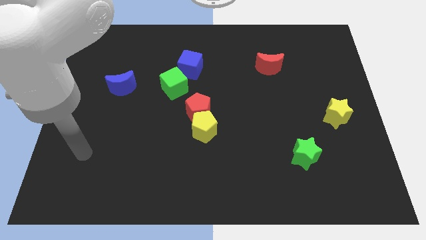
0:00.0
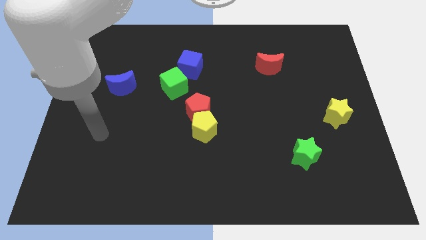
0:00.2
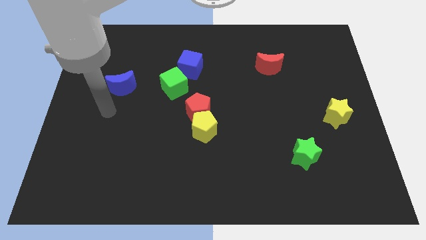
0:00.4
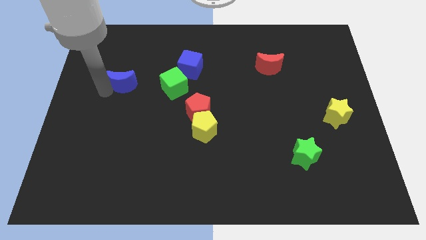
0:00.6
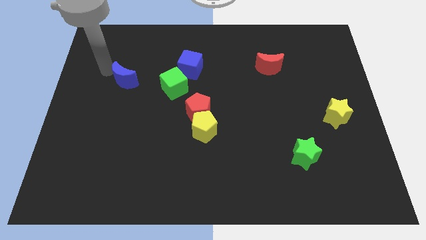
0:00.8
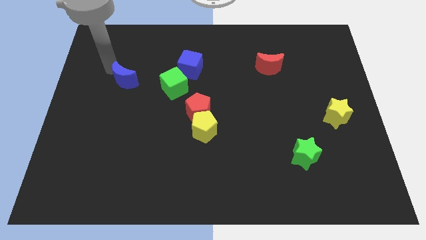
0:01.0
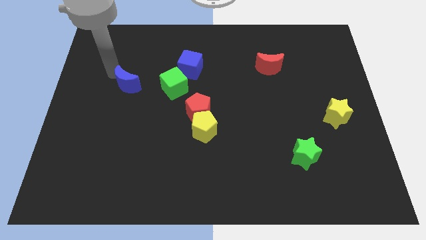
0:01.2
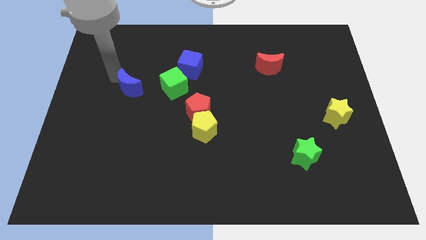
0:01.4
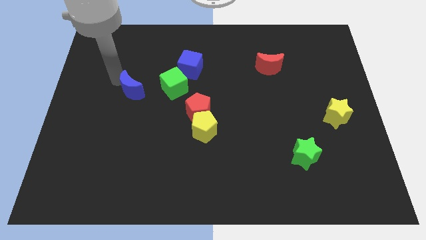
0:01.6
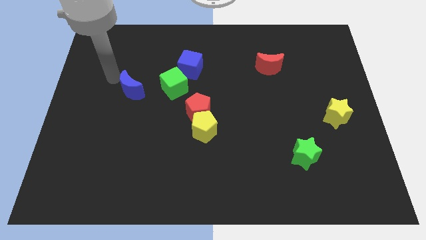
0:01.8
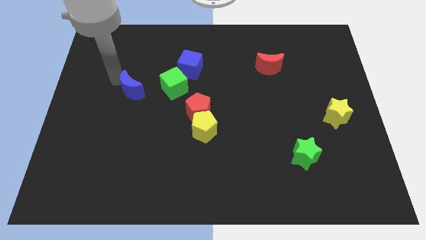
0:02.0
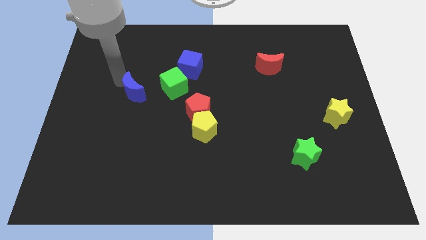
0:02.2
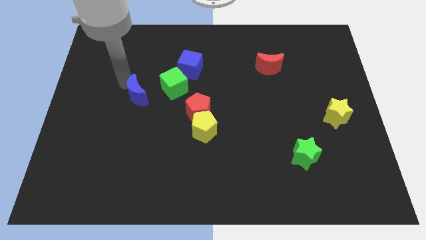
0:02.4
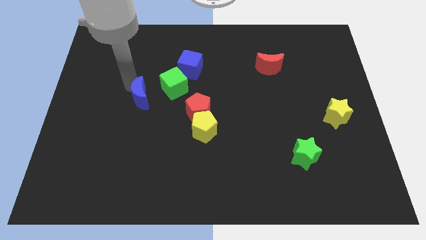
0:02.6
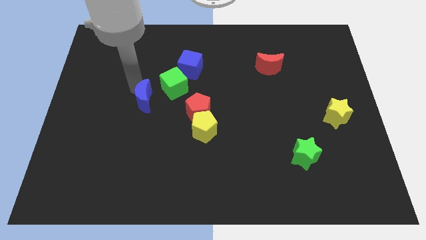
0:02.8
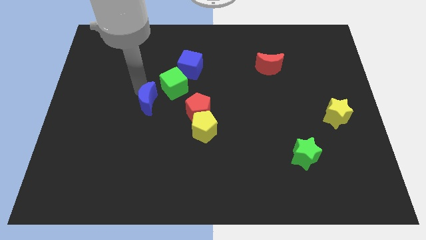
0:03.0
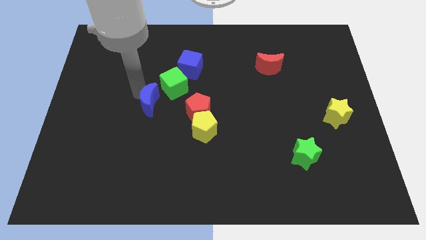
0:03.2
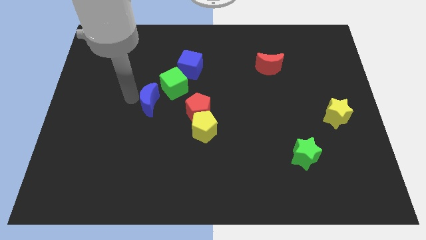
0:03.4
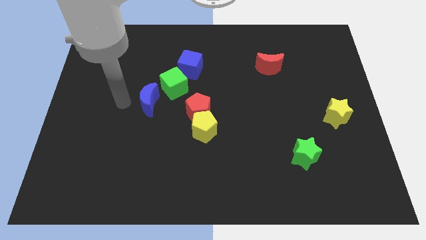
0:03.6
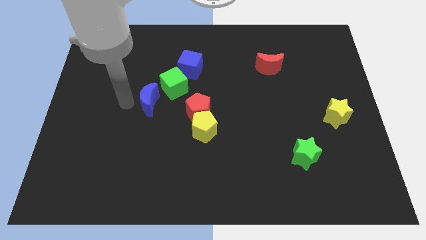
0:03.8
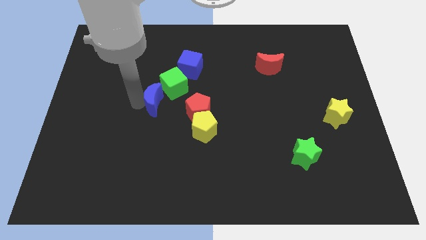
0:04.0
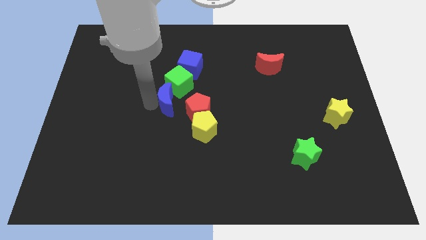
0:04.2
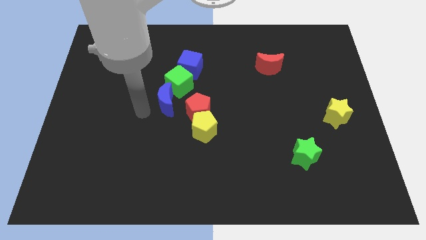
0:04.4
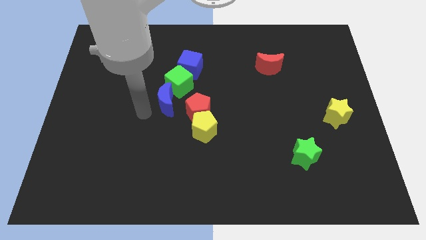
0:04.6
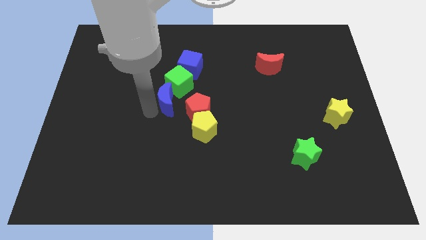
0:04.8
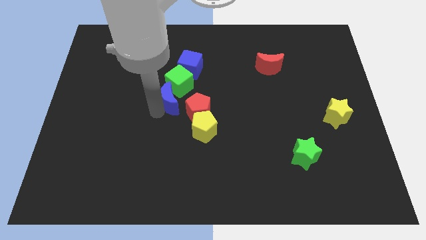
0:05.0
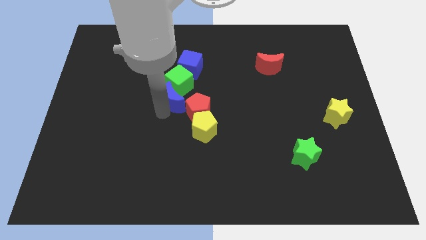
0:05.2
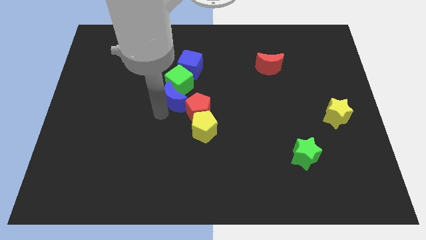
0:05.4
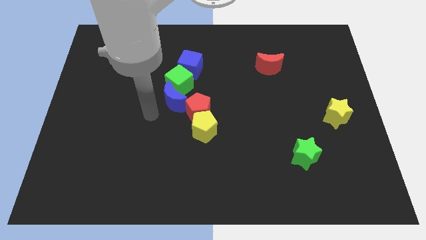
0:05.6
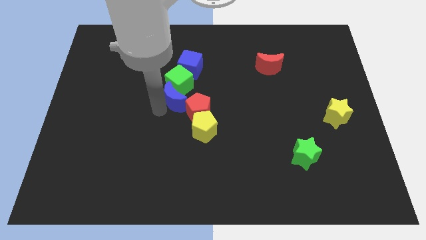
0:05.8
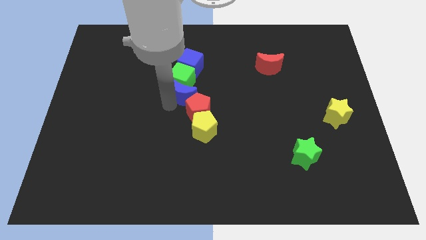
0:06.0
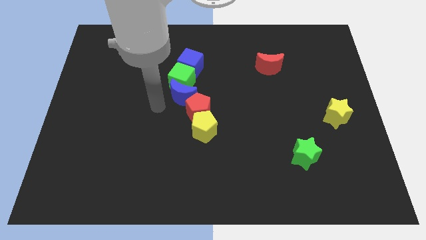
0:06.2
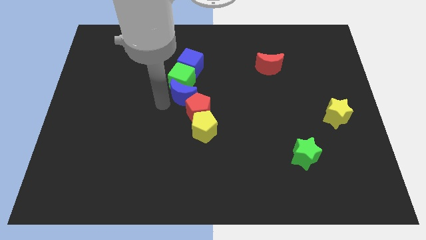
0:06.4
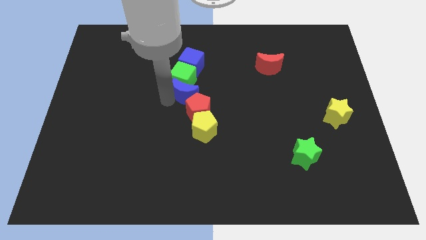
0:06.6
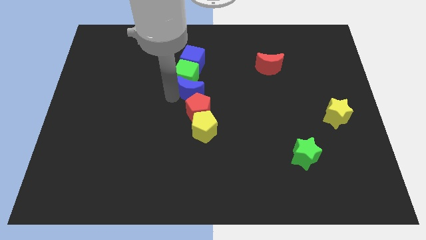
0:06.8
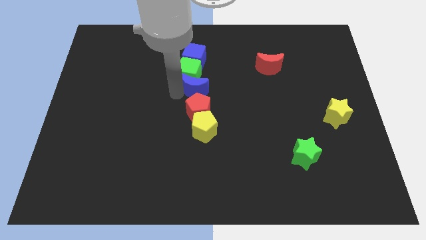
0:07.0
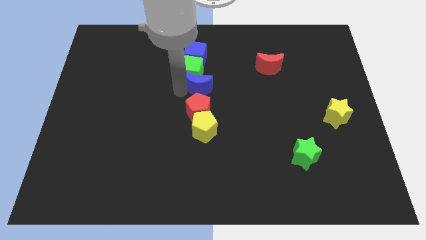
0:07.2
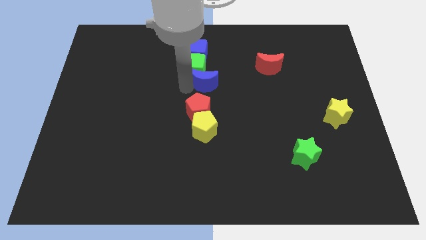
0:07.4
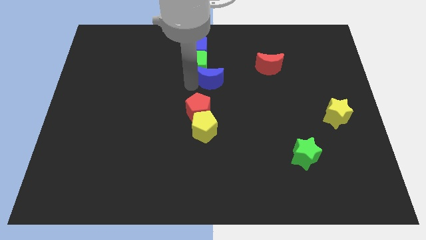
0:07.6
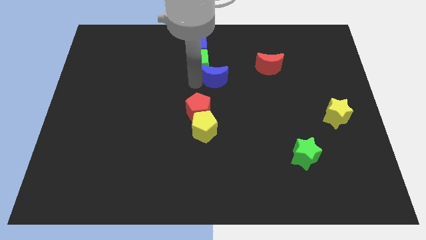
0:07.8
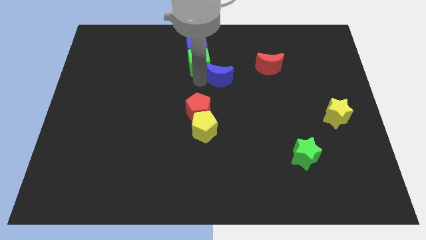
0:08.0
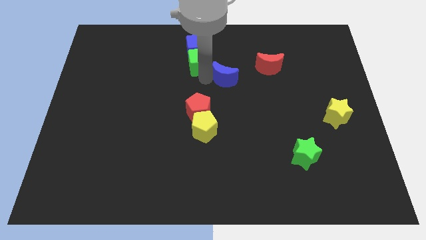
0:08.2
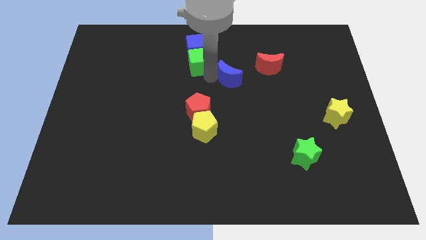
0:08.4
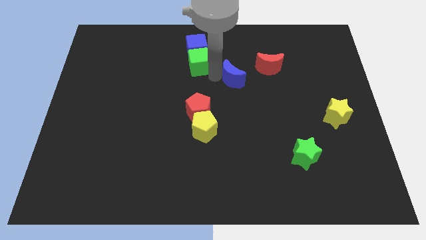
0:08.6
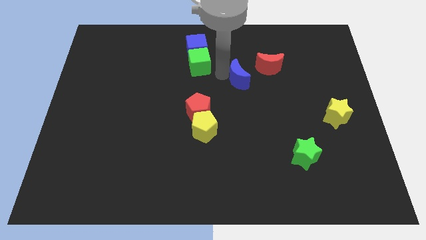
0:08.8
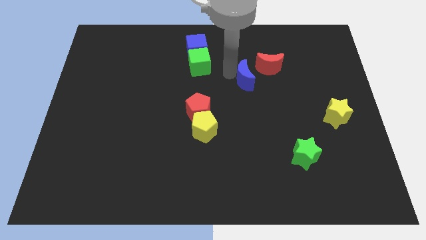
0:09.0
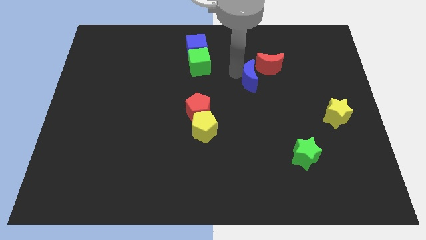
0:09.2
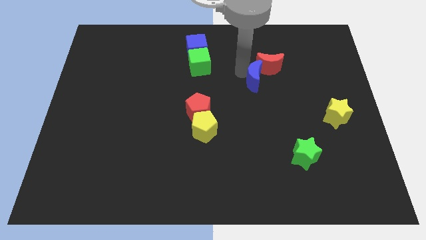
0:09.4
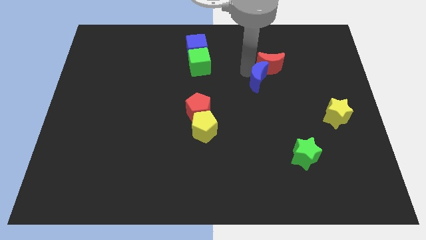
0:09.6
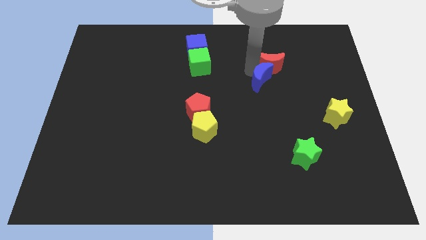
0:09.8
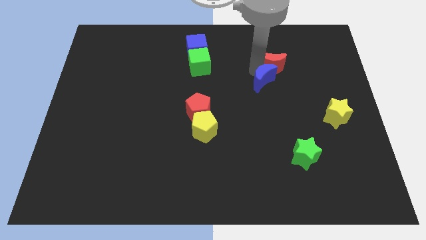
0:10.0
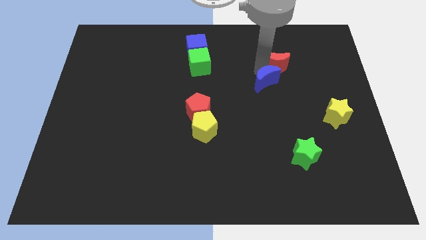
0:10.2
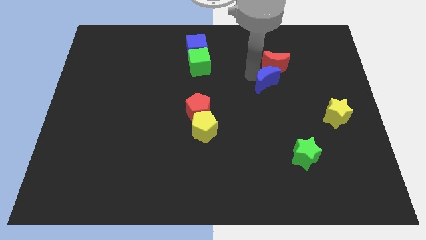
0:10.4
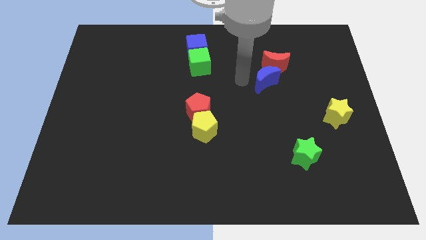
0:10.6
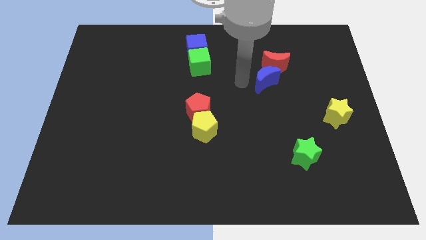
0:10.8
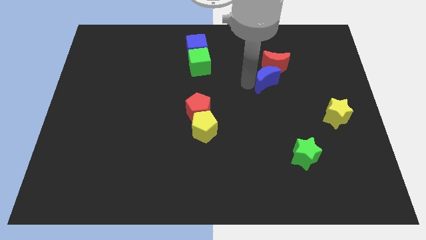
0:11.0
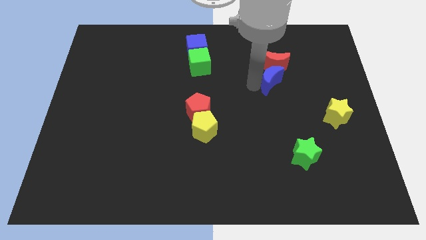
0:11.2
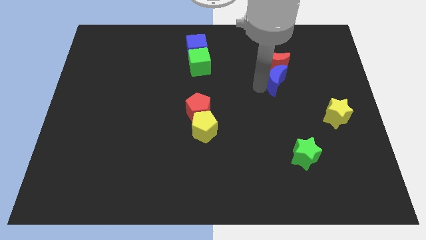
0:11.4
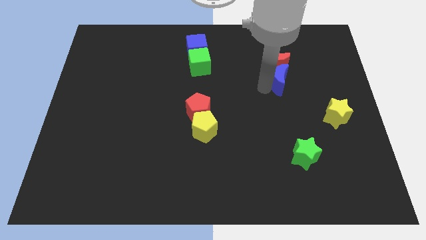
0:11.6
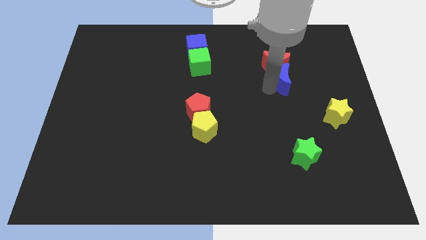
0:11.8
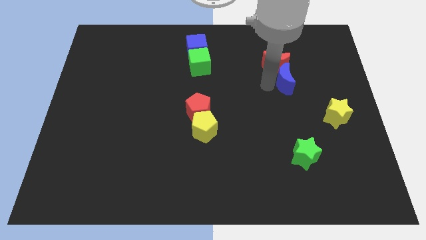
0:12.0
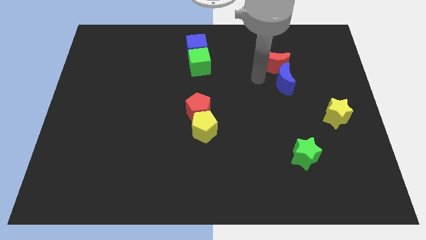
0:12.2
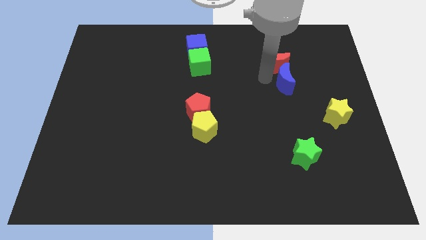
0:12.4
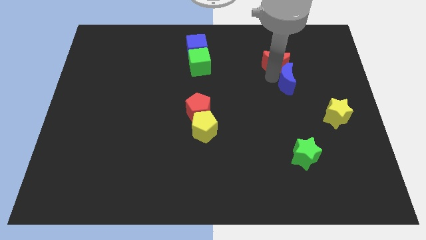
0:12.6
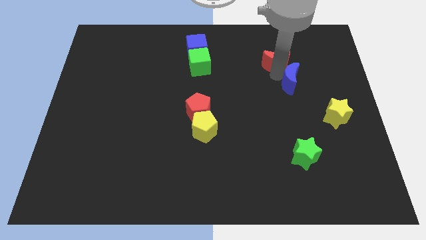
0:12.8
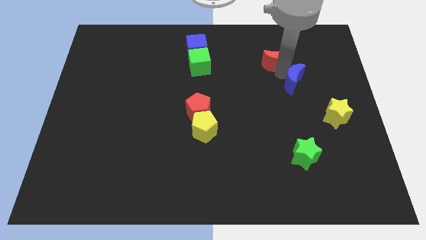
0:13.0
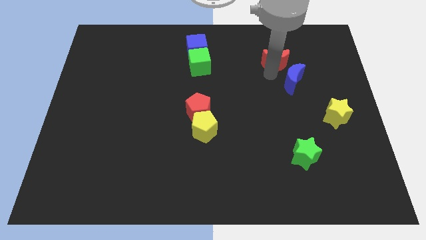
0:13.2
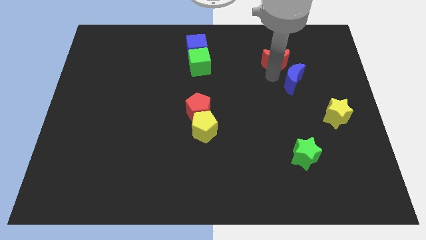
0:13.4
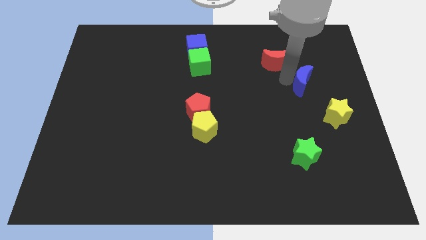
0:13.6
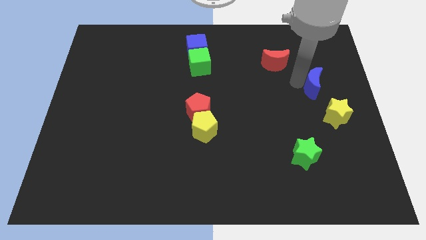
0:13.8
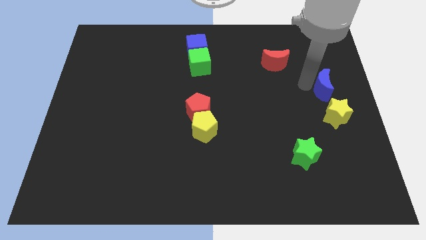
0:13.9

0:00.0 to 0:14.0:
move the blue moon to the center right

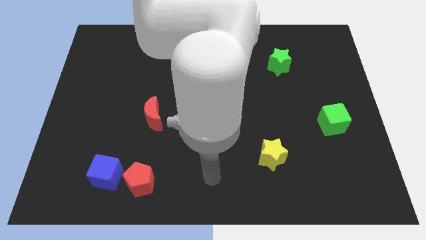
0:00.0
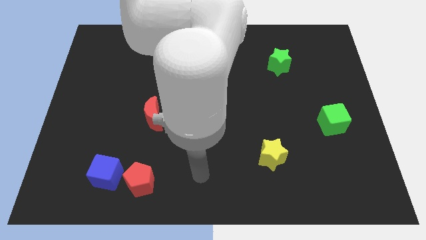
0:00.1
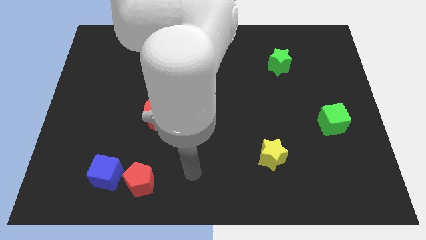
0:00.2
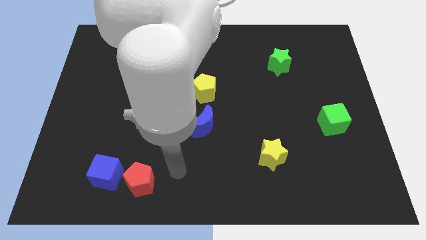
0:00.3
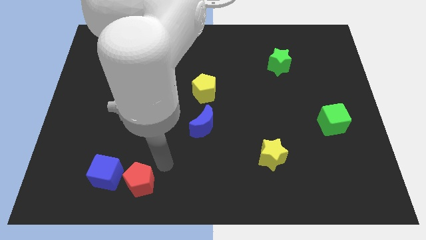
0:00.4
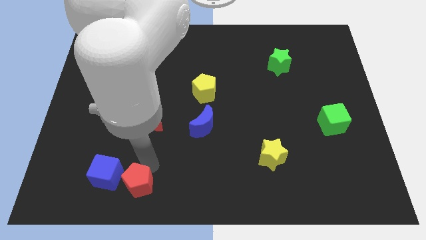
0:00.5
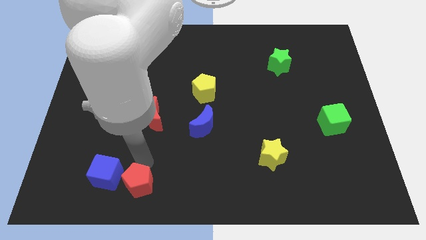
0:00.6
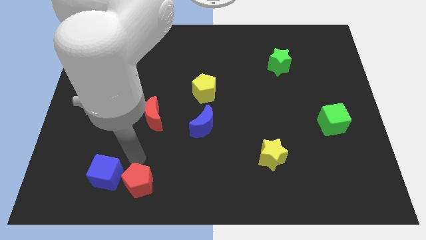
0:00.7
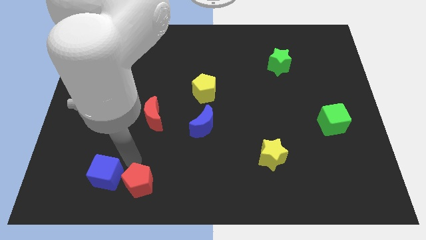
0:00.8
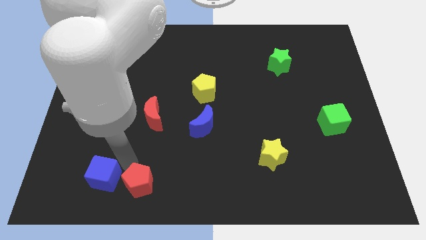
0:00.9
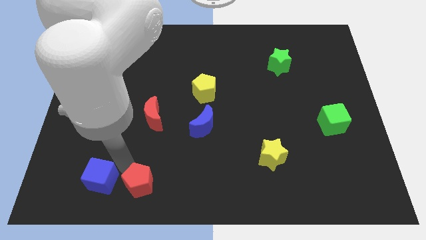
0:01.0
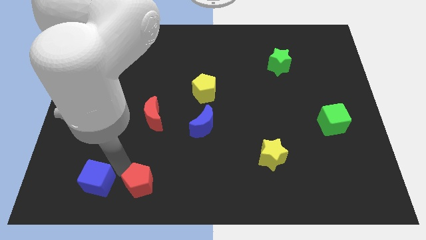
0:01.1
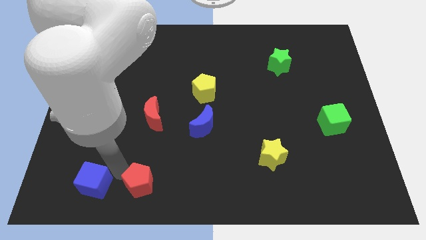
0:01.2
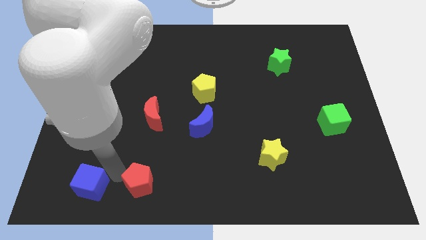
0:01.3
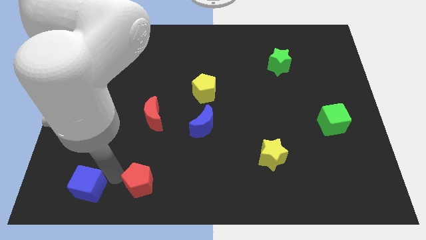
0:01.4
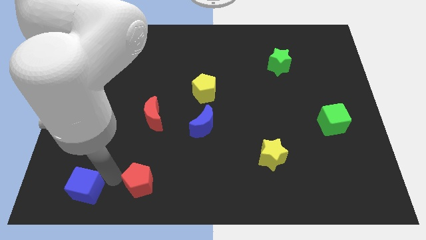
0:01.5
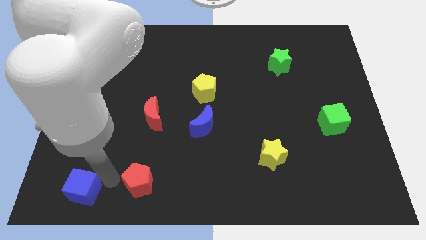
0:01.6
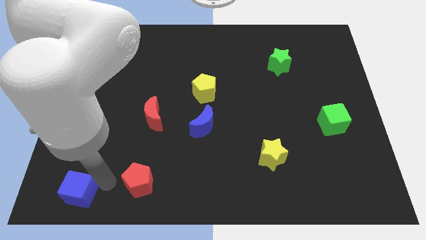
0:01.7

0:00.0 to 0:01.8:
slide the blue cube to the bottom left corner

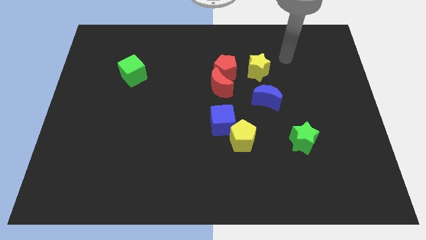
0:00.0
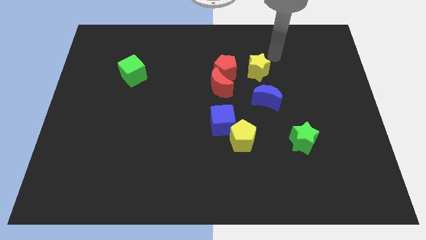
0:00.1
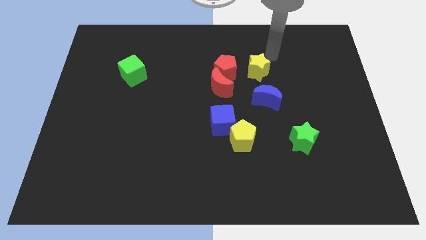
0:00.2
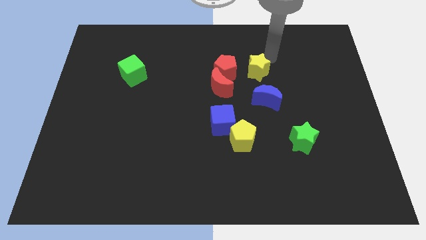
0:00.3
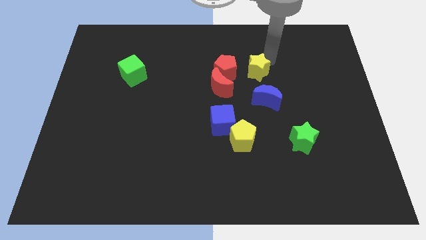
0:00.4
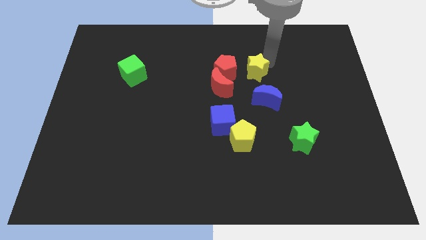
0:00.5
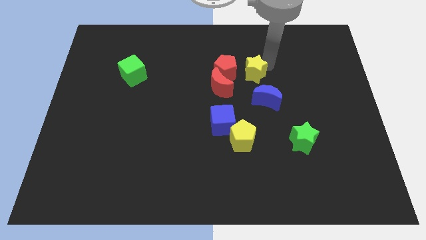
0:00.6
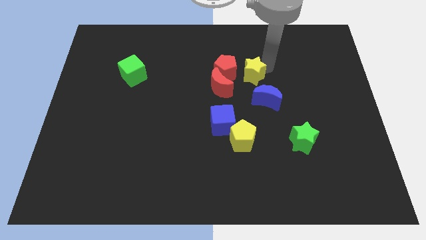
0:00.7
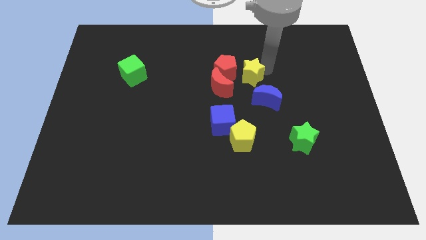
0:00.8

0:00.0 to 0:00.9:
move the yellow star to the middle
